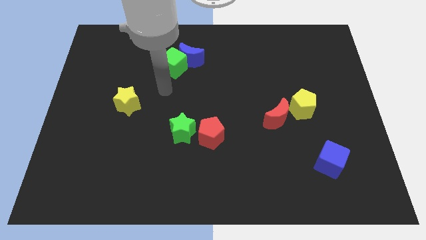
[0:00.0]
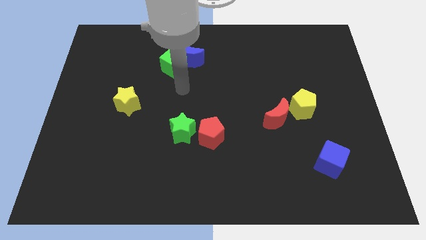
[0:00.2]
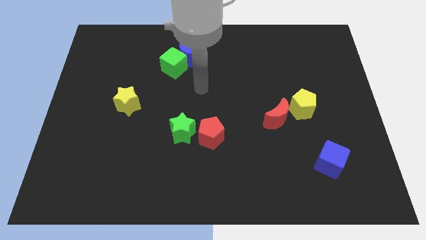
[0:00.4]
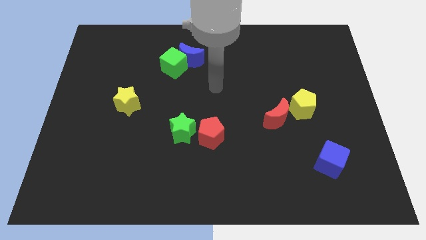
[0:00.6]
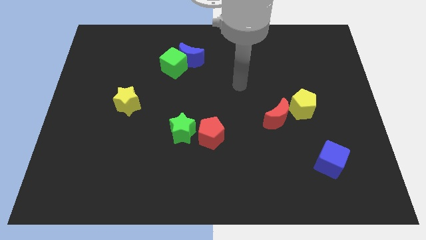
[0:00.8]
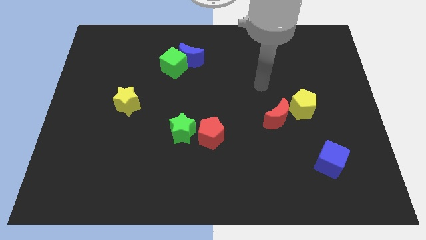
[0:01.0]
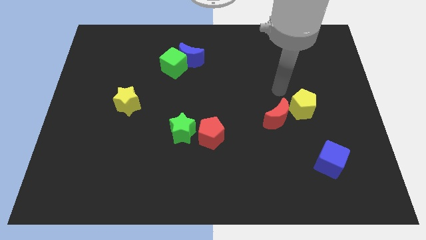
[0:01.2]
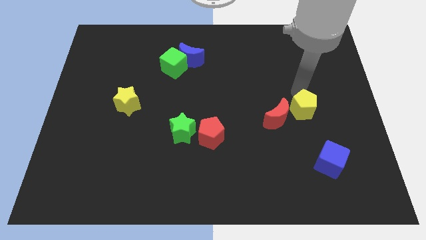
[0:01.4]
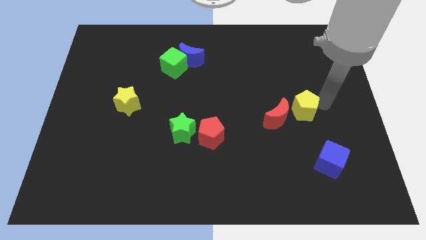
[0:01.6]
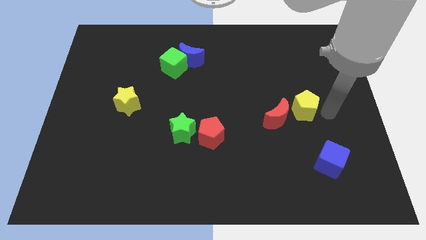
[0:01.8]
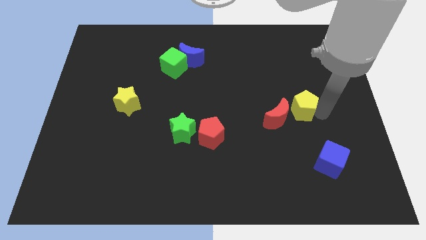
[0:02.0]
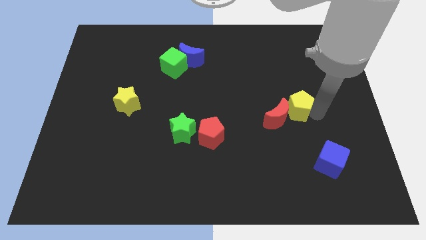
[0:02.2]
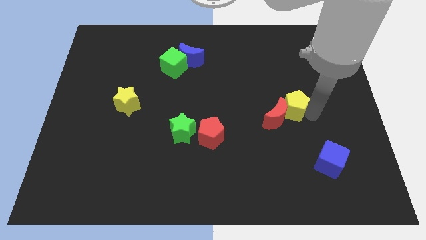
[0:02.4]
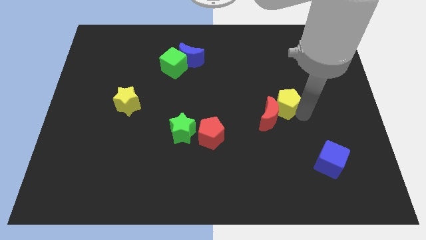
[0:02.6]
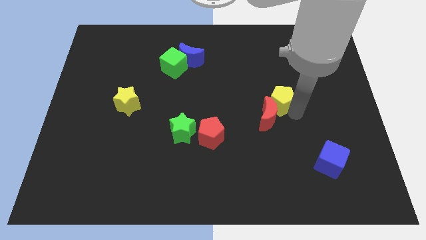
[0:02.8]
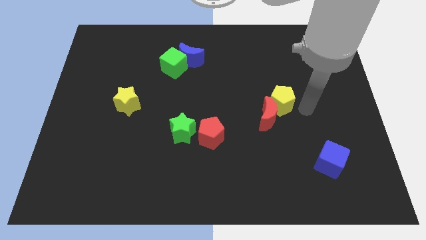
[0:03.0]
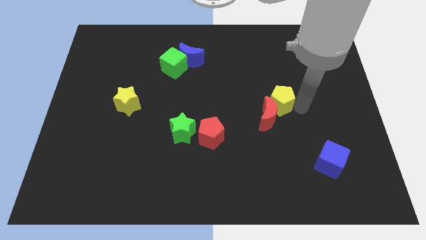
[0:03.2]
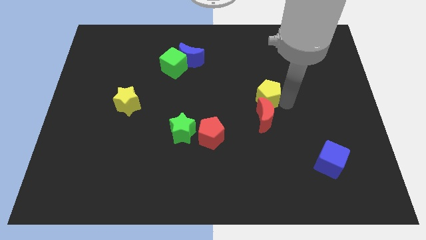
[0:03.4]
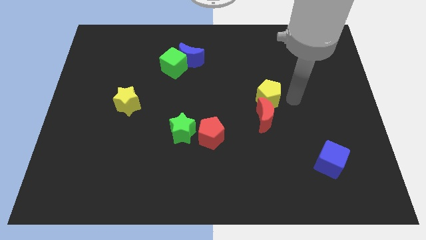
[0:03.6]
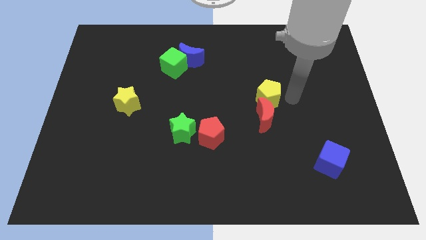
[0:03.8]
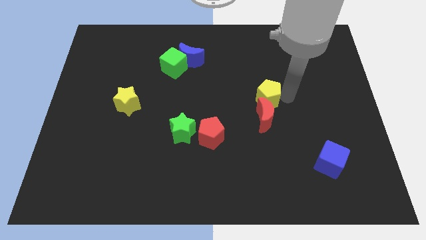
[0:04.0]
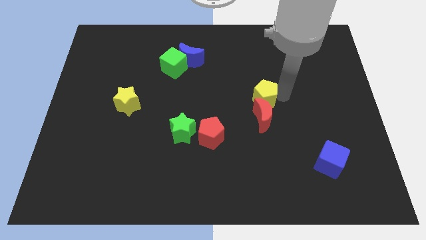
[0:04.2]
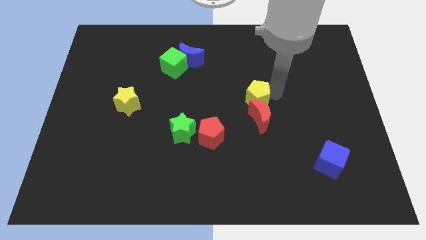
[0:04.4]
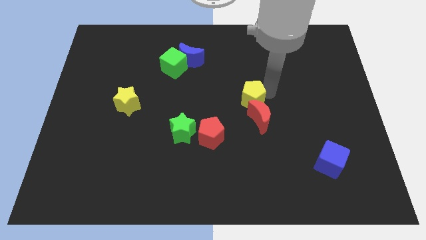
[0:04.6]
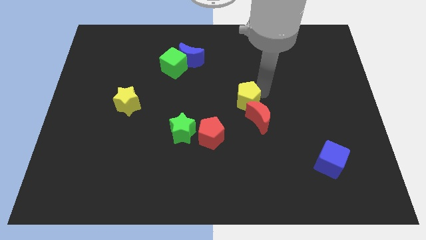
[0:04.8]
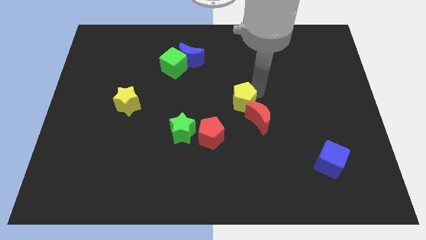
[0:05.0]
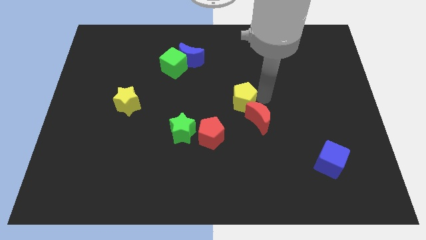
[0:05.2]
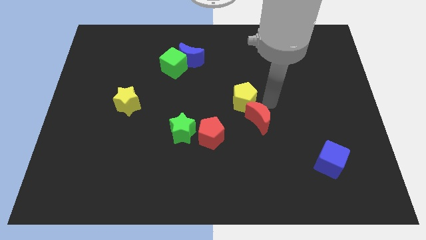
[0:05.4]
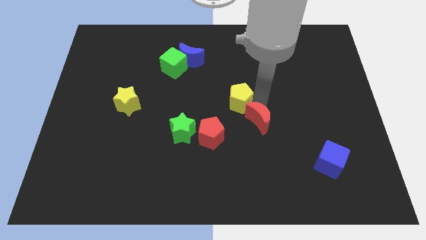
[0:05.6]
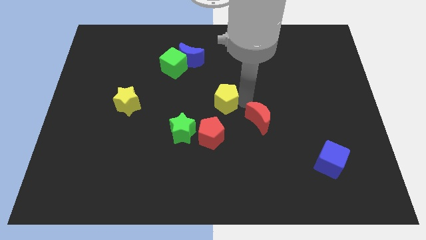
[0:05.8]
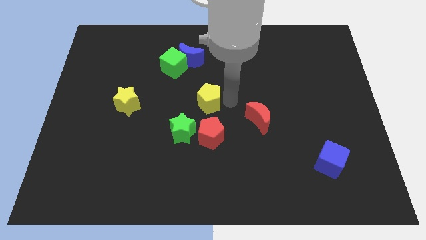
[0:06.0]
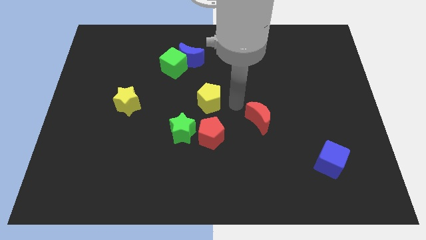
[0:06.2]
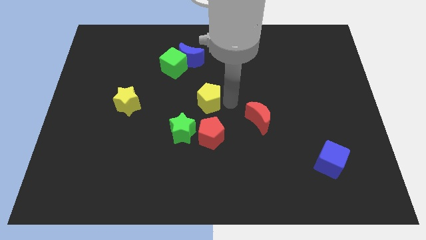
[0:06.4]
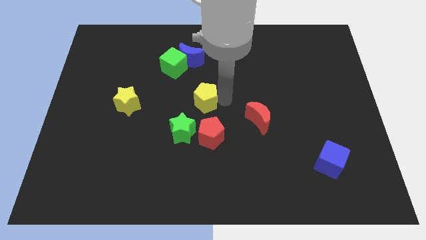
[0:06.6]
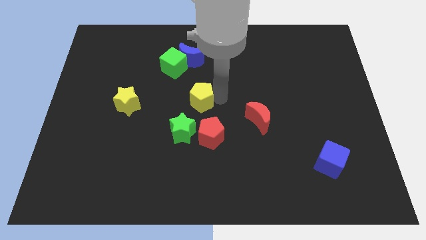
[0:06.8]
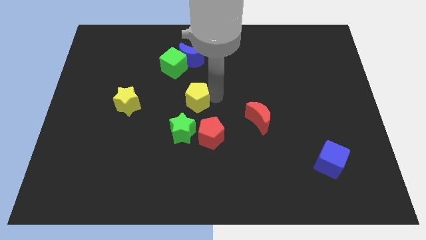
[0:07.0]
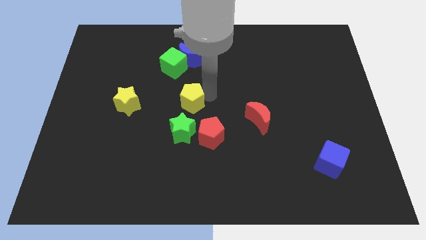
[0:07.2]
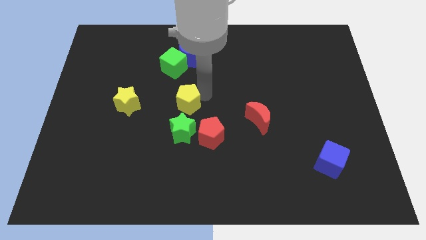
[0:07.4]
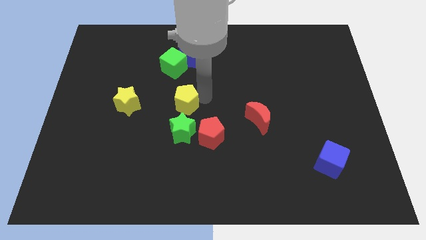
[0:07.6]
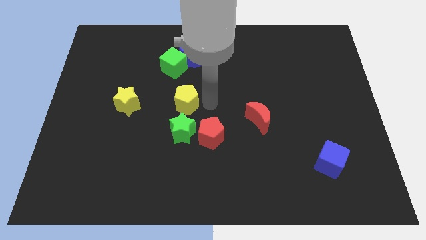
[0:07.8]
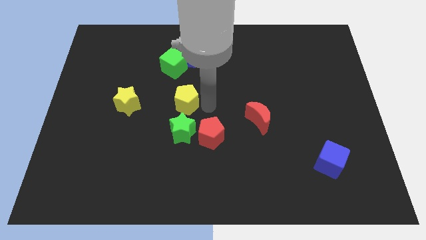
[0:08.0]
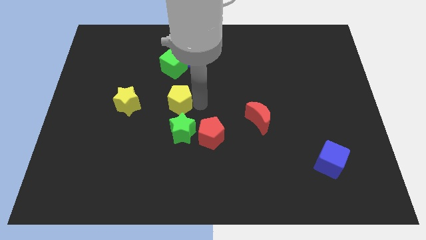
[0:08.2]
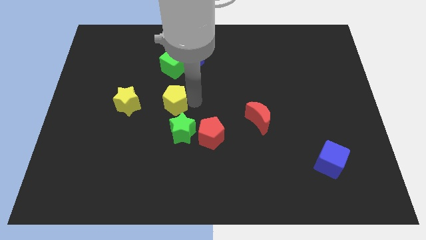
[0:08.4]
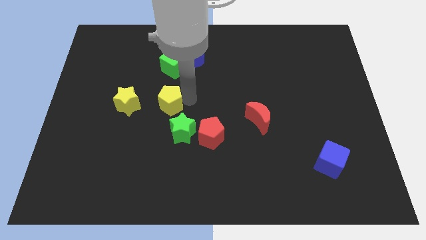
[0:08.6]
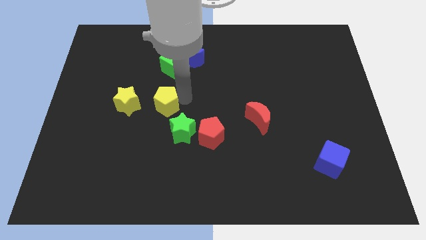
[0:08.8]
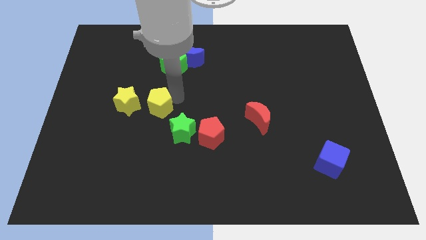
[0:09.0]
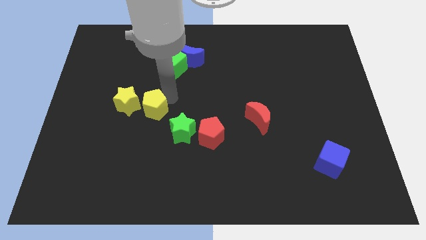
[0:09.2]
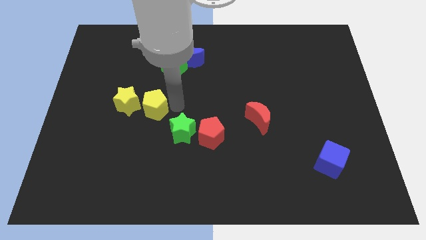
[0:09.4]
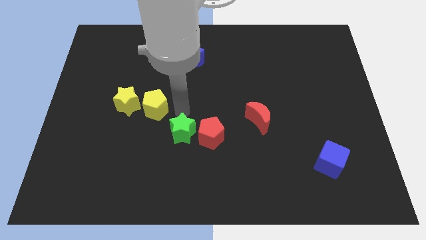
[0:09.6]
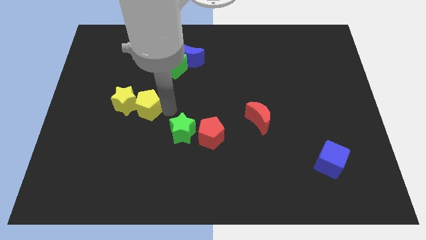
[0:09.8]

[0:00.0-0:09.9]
move the yellow pentagon close to the yellow star

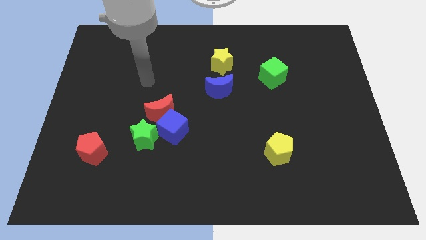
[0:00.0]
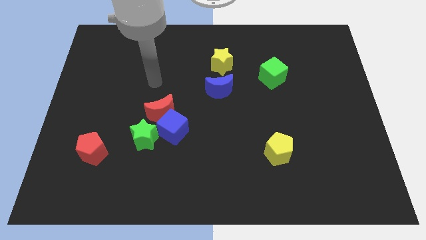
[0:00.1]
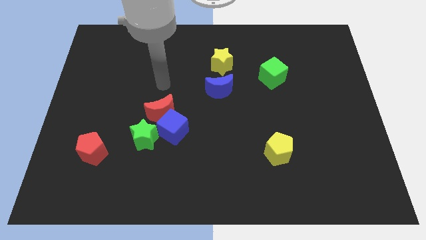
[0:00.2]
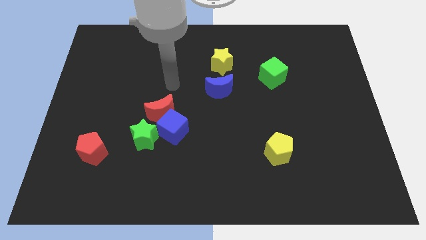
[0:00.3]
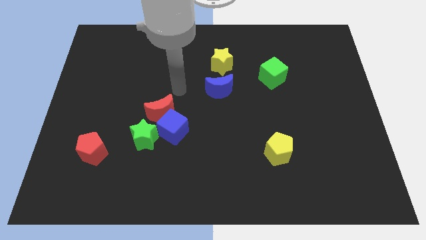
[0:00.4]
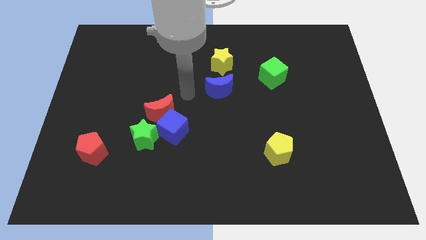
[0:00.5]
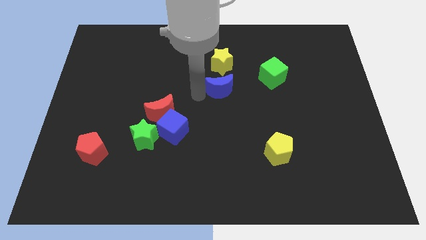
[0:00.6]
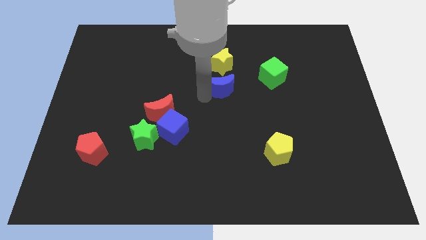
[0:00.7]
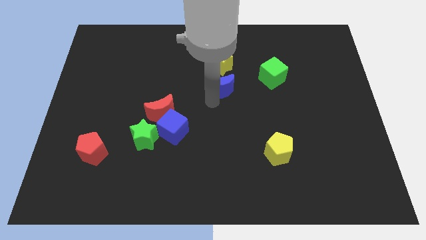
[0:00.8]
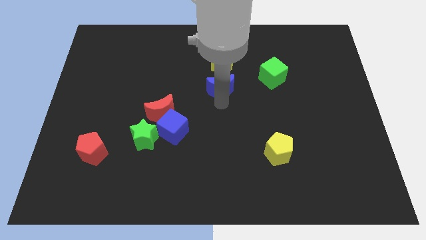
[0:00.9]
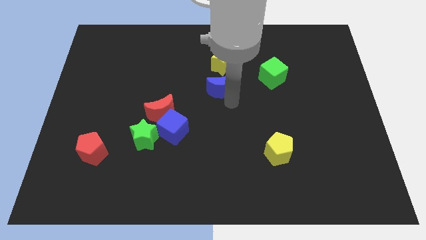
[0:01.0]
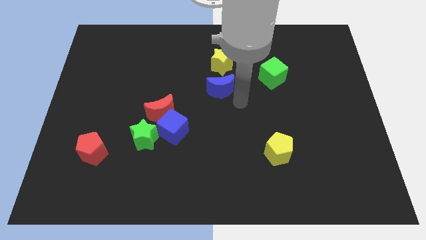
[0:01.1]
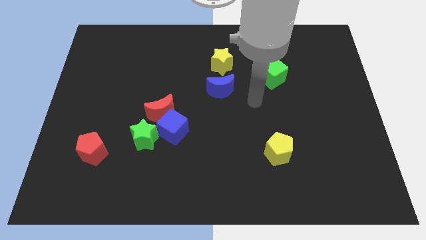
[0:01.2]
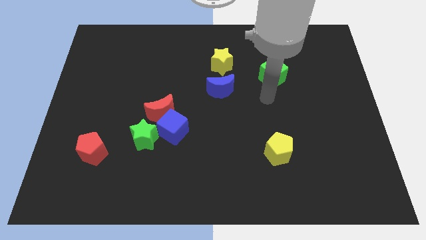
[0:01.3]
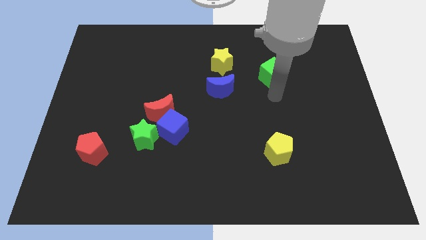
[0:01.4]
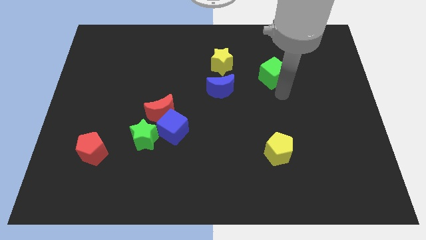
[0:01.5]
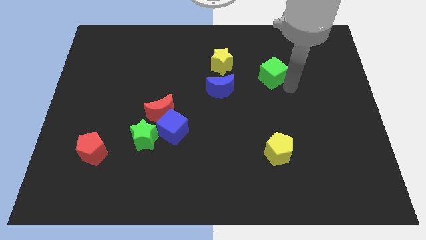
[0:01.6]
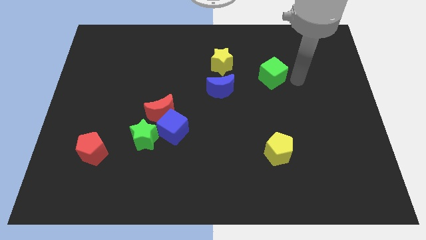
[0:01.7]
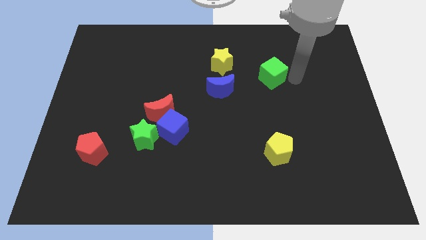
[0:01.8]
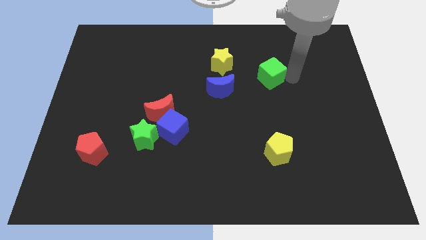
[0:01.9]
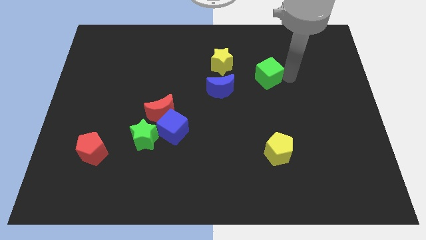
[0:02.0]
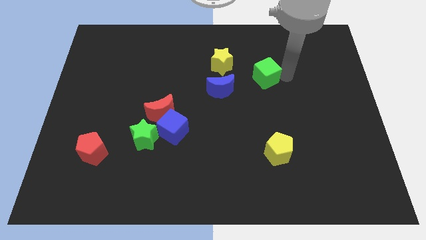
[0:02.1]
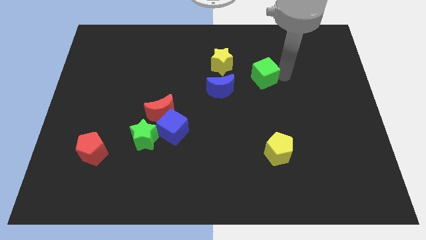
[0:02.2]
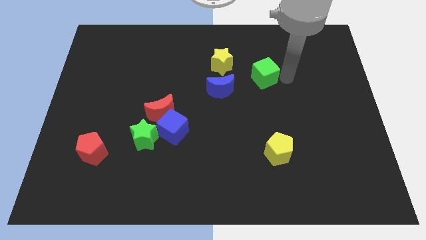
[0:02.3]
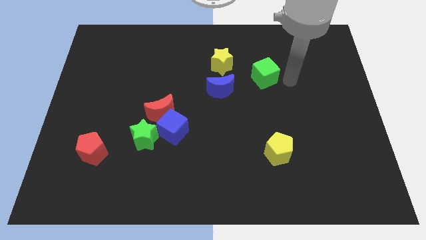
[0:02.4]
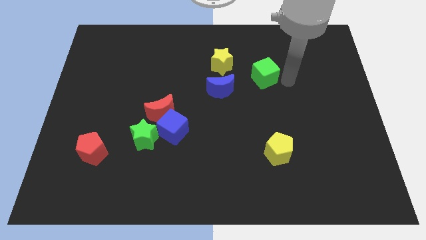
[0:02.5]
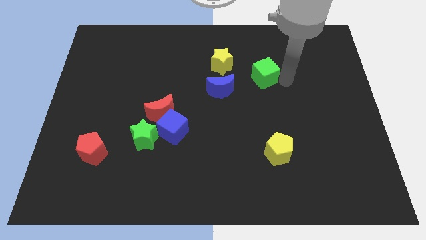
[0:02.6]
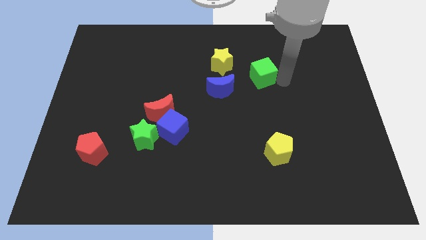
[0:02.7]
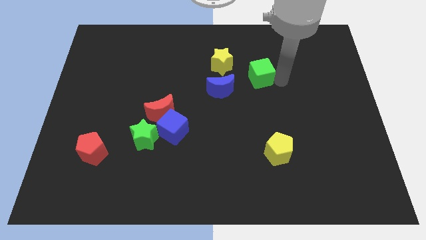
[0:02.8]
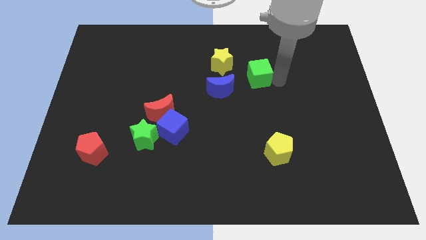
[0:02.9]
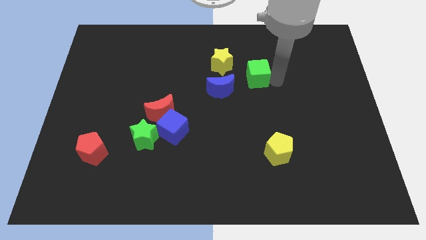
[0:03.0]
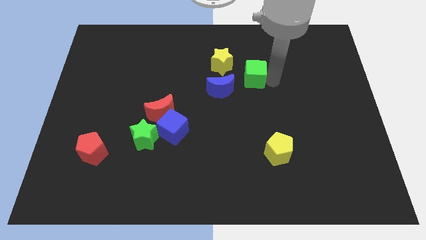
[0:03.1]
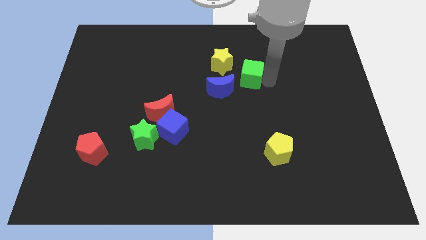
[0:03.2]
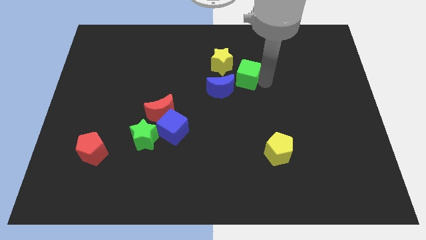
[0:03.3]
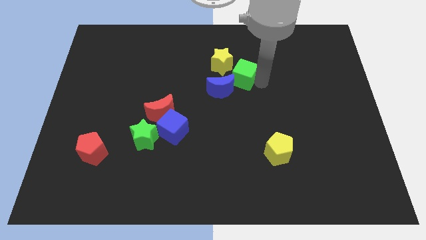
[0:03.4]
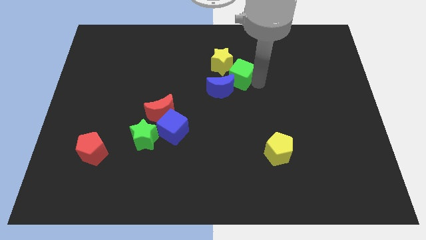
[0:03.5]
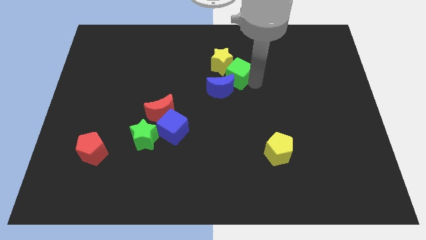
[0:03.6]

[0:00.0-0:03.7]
put the green cube close to the yellow star
